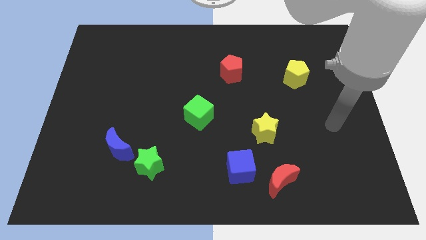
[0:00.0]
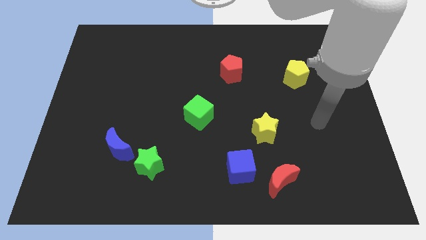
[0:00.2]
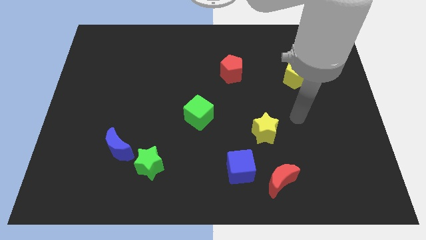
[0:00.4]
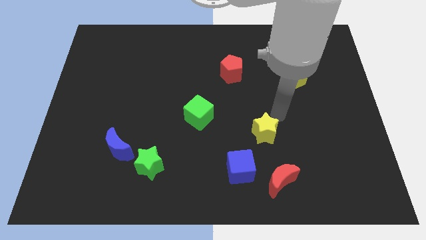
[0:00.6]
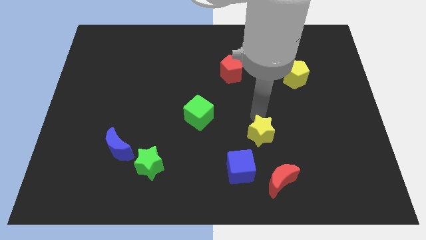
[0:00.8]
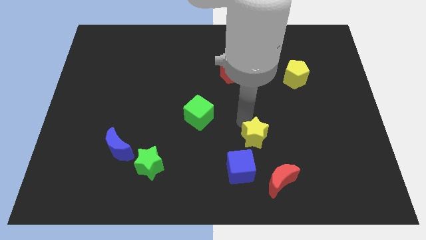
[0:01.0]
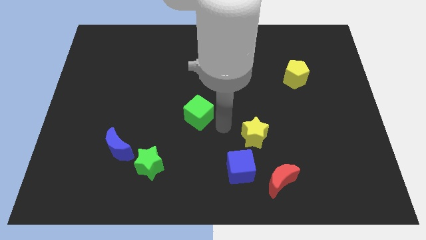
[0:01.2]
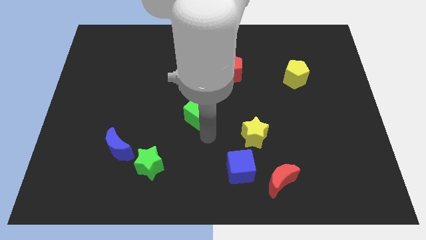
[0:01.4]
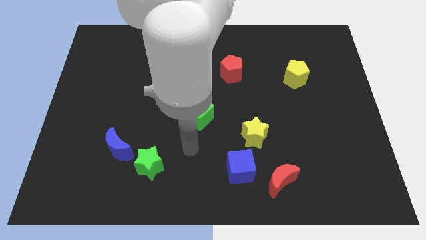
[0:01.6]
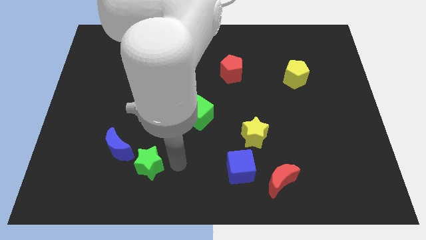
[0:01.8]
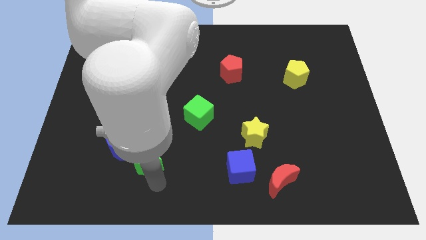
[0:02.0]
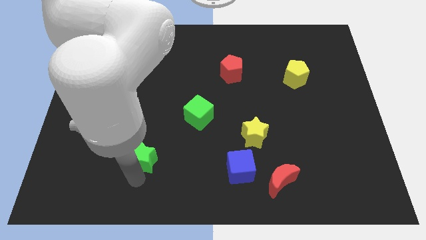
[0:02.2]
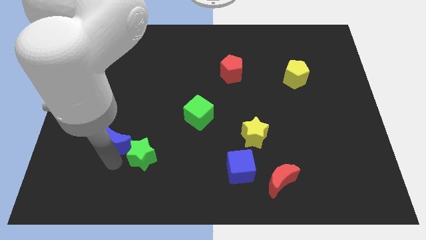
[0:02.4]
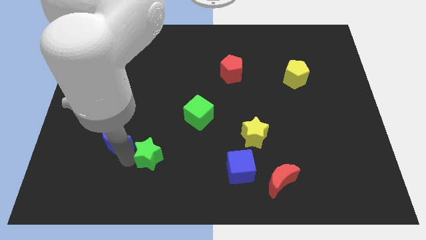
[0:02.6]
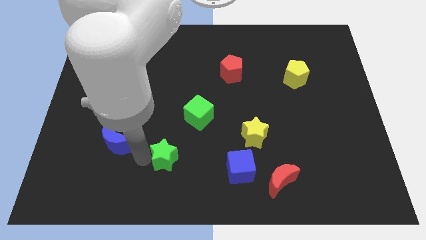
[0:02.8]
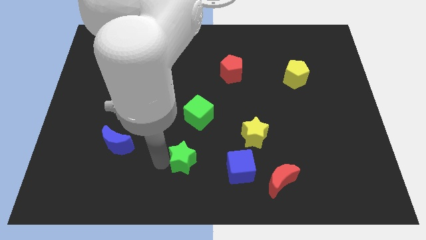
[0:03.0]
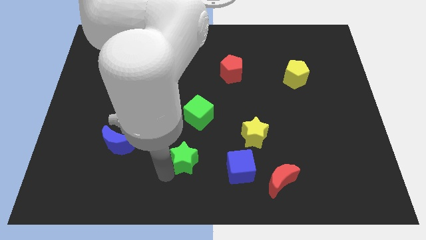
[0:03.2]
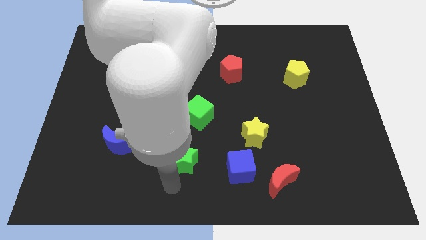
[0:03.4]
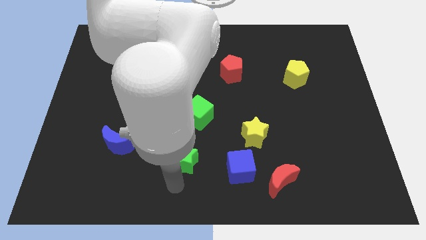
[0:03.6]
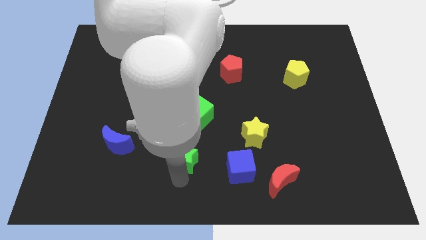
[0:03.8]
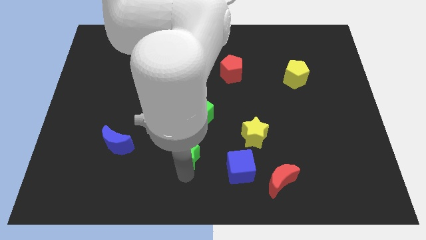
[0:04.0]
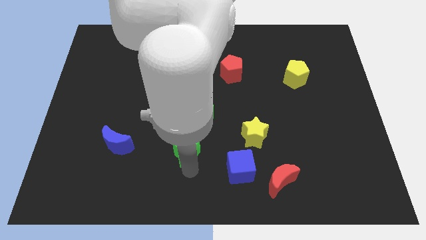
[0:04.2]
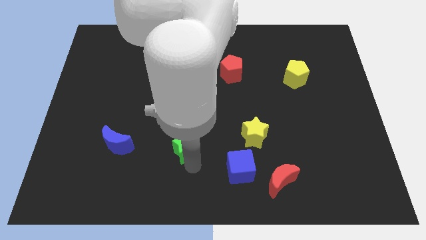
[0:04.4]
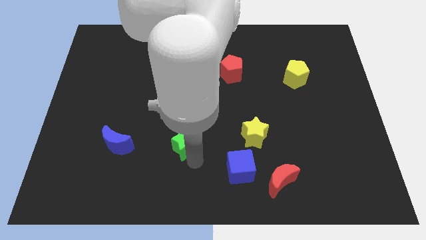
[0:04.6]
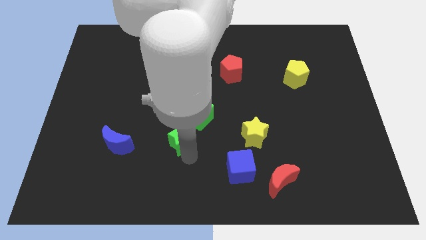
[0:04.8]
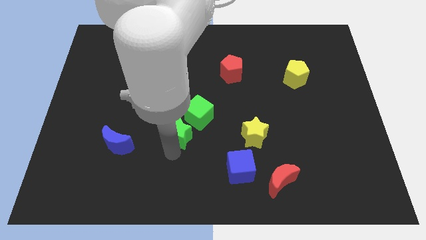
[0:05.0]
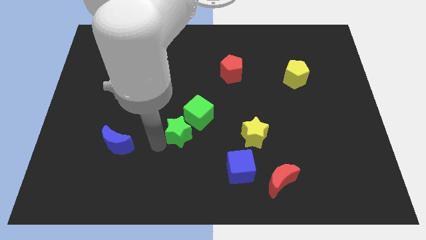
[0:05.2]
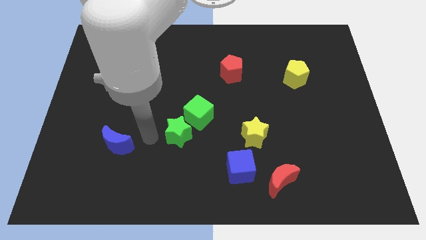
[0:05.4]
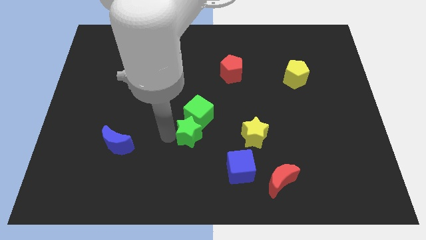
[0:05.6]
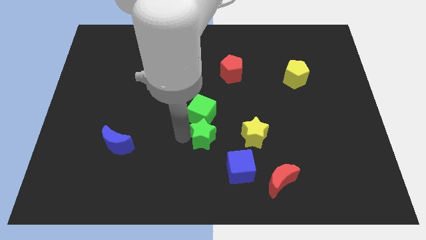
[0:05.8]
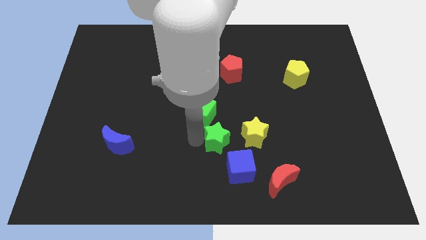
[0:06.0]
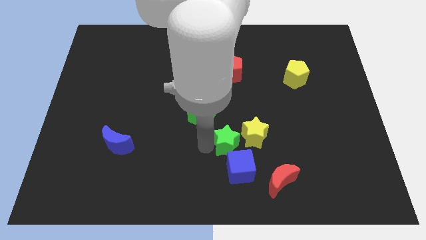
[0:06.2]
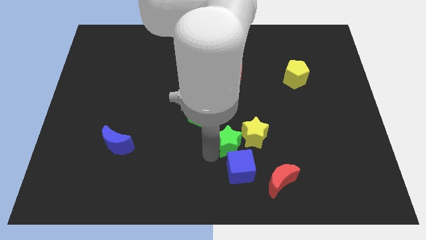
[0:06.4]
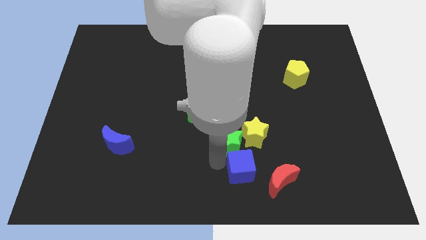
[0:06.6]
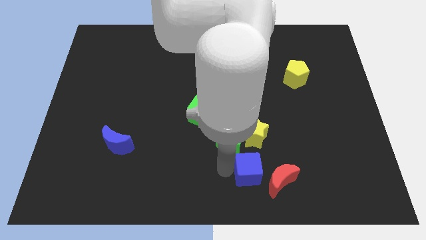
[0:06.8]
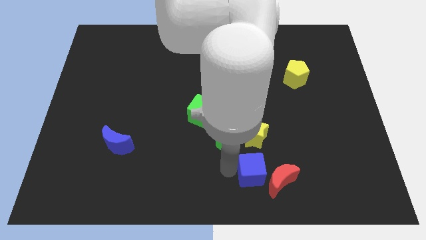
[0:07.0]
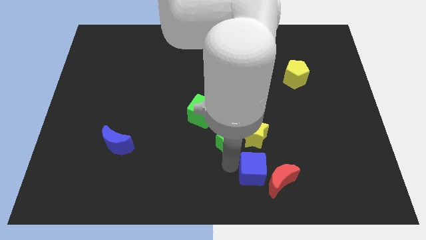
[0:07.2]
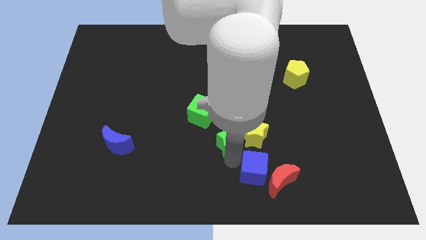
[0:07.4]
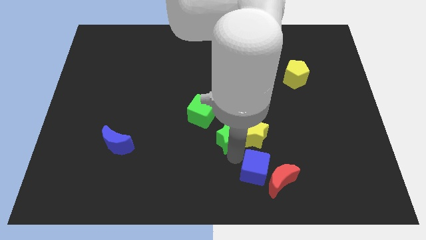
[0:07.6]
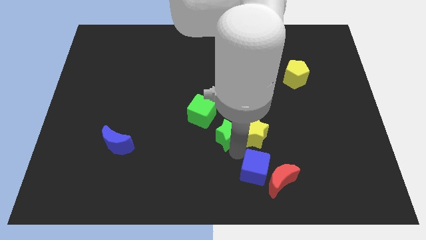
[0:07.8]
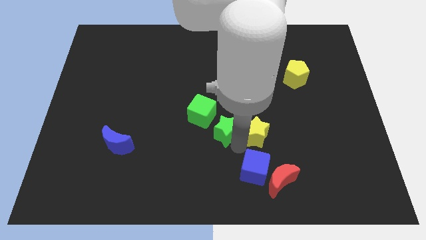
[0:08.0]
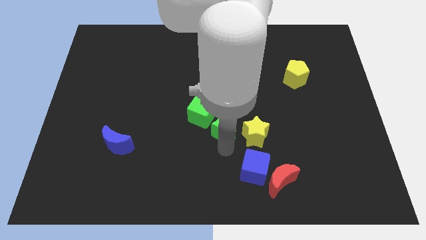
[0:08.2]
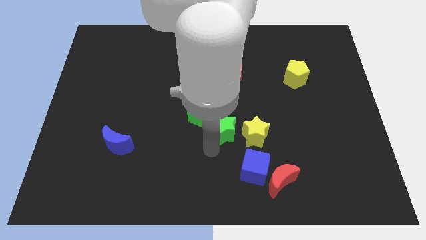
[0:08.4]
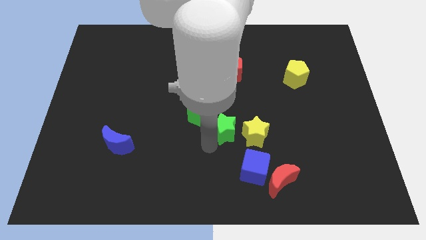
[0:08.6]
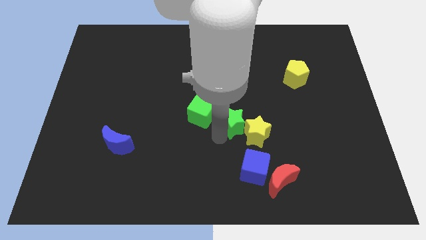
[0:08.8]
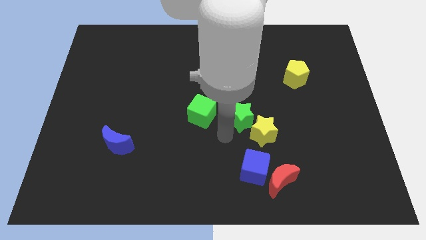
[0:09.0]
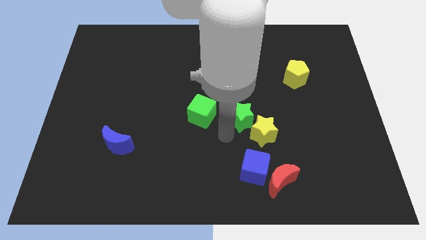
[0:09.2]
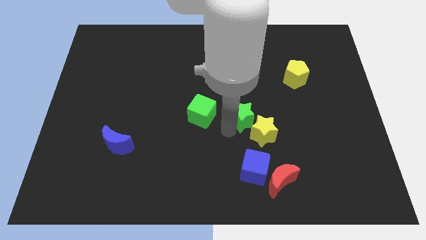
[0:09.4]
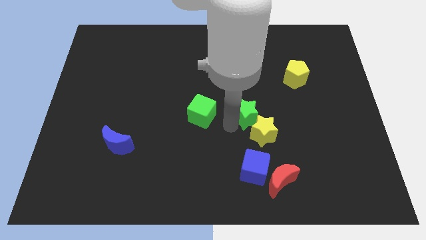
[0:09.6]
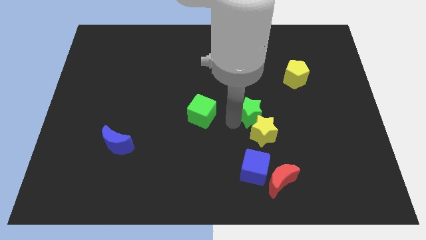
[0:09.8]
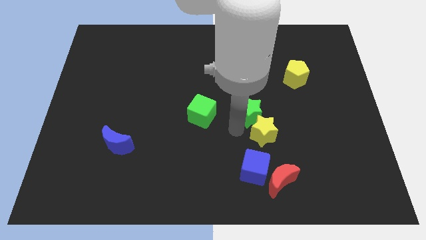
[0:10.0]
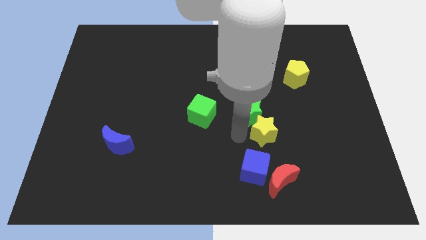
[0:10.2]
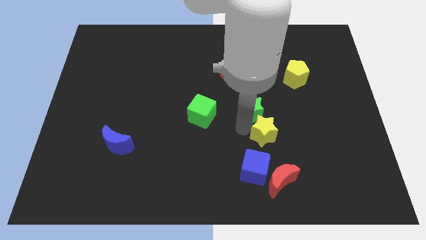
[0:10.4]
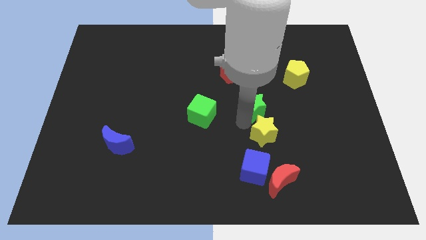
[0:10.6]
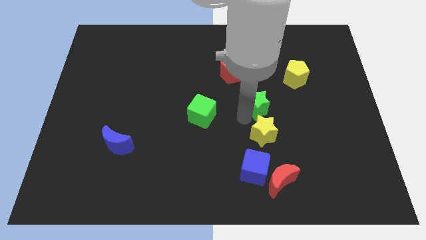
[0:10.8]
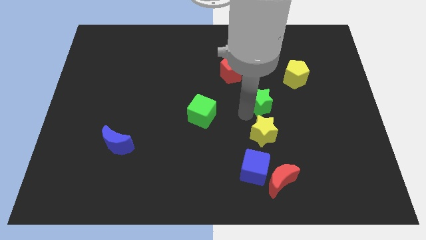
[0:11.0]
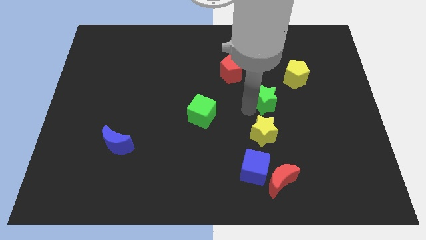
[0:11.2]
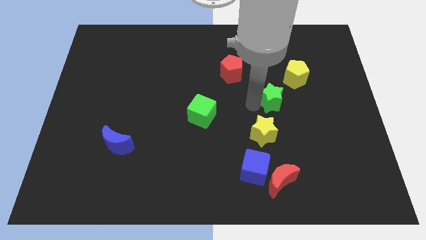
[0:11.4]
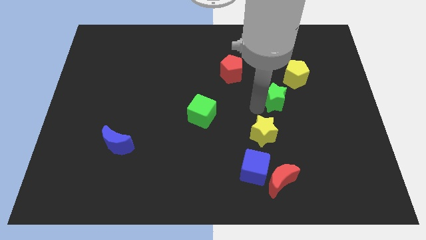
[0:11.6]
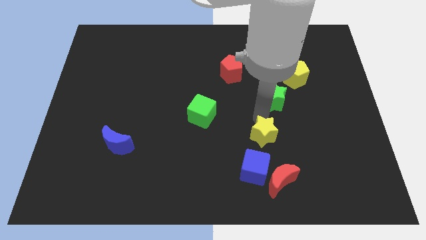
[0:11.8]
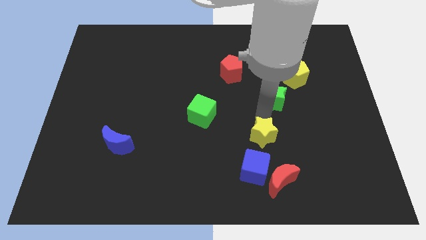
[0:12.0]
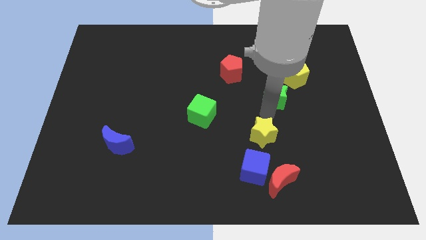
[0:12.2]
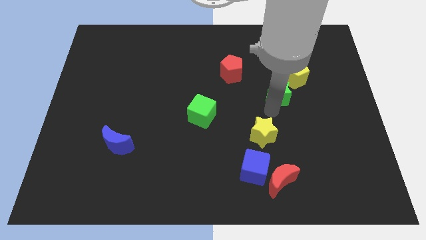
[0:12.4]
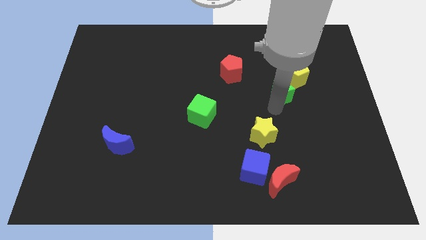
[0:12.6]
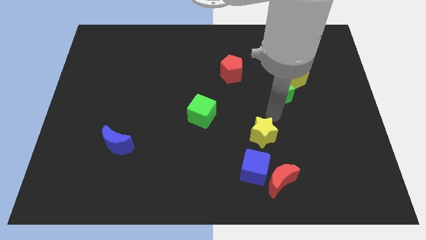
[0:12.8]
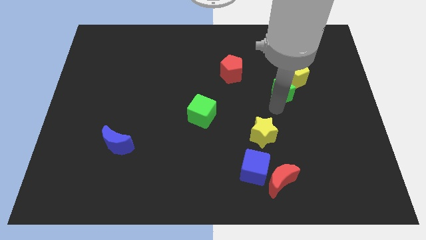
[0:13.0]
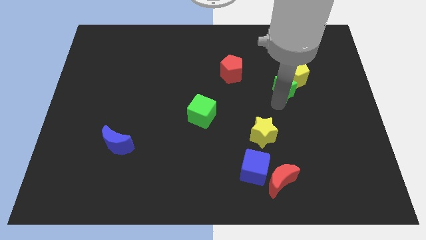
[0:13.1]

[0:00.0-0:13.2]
slide the green star next to the yellow pentagon
